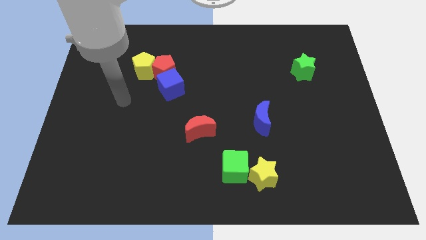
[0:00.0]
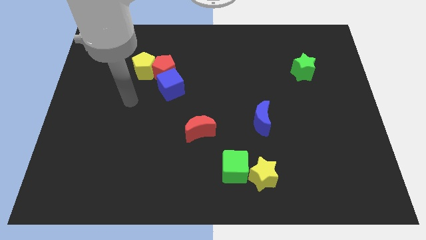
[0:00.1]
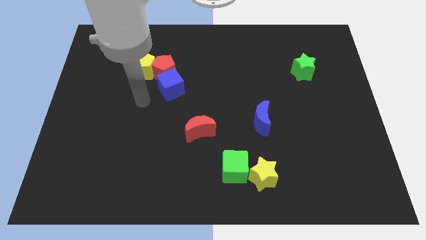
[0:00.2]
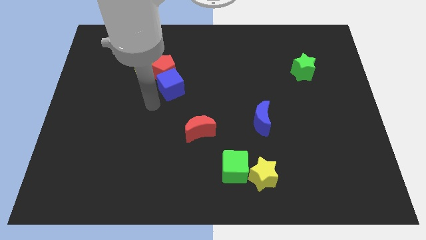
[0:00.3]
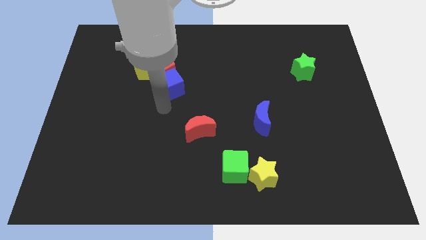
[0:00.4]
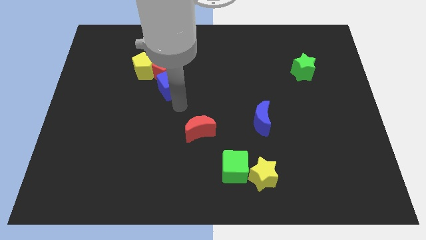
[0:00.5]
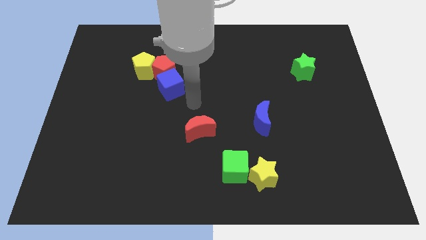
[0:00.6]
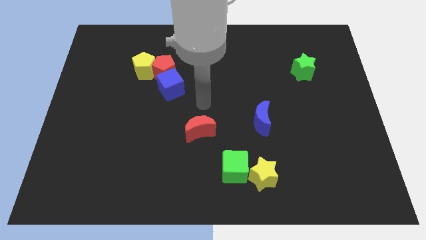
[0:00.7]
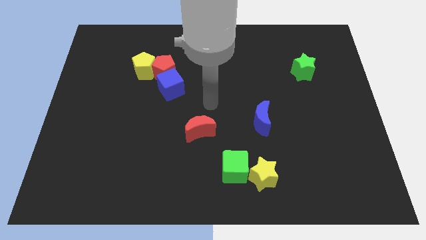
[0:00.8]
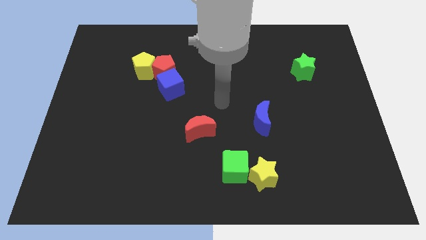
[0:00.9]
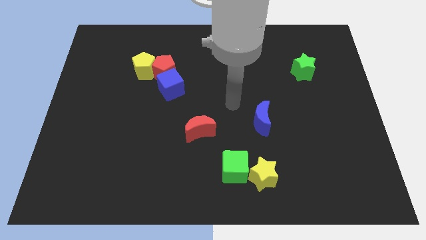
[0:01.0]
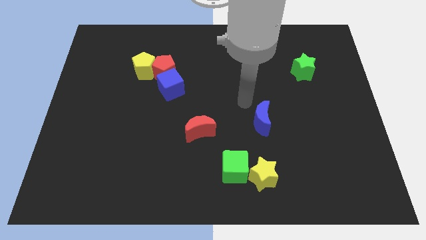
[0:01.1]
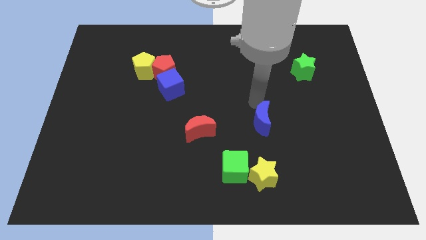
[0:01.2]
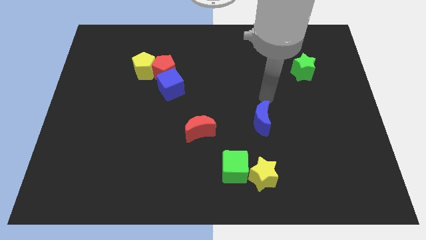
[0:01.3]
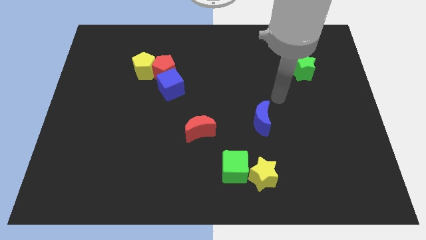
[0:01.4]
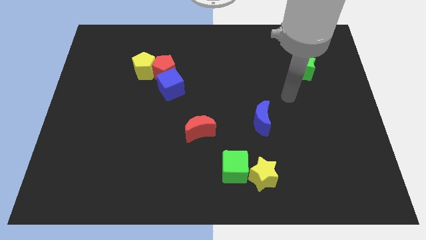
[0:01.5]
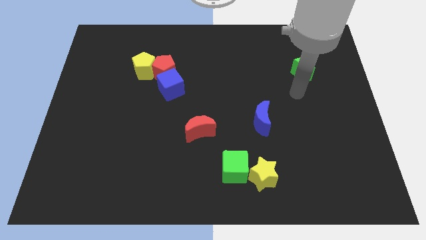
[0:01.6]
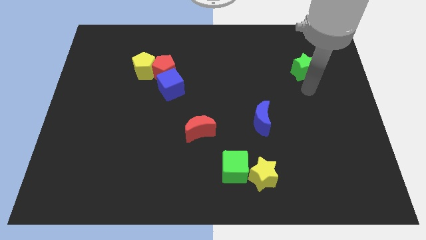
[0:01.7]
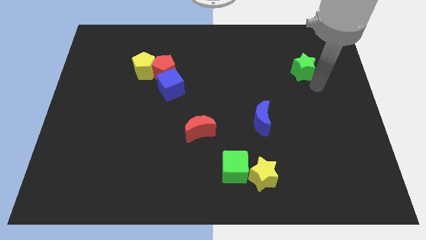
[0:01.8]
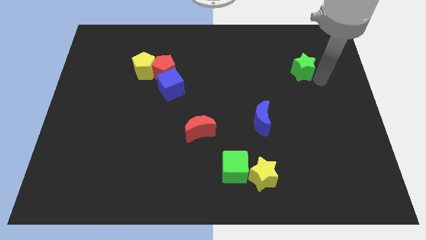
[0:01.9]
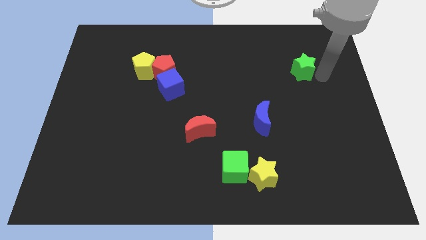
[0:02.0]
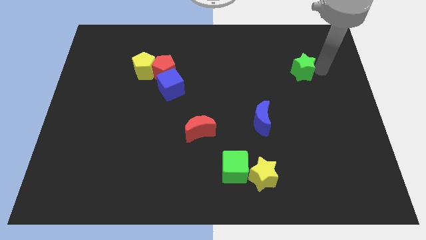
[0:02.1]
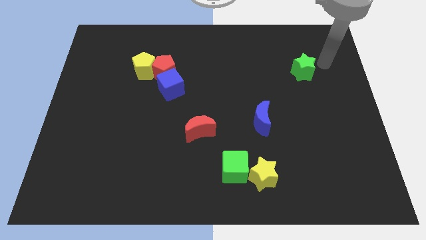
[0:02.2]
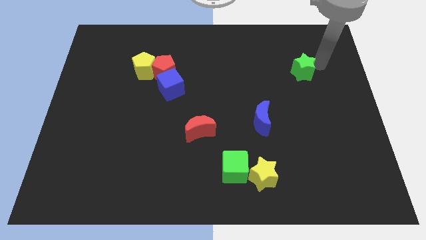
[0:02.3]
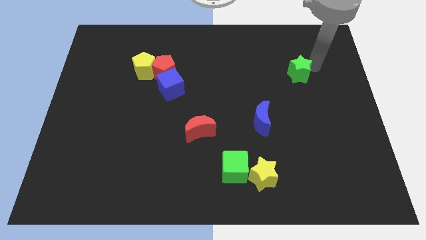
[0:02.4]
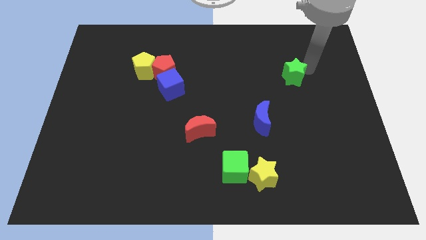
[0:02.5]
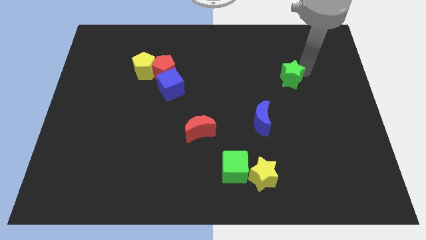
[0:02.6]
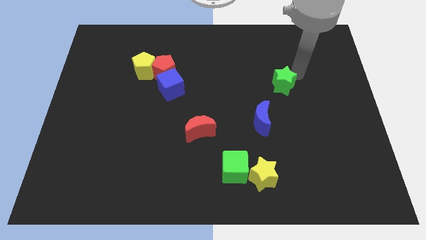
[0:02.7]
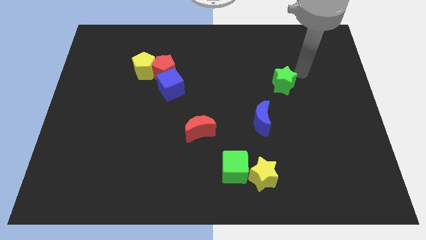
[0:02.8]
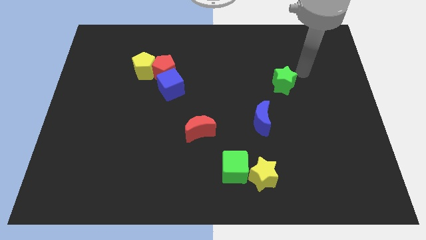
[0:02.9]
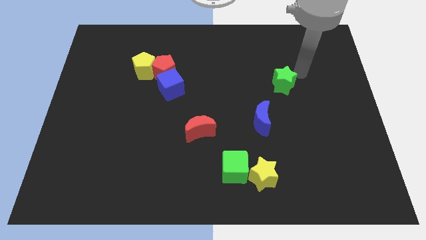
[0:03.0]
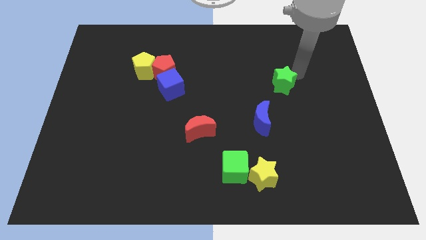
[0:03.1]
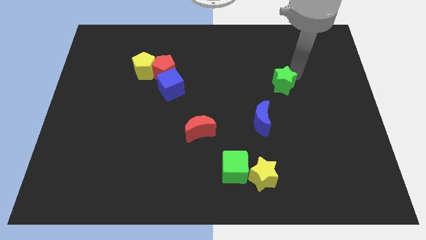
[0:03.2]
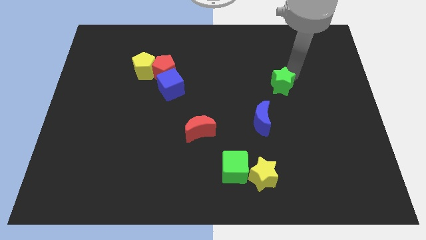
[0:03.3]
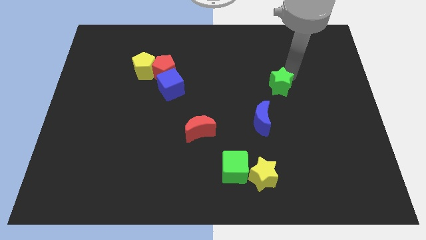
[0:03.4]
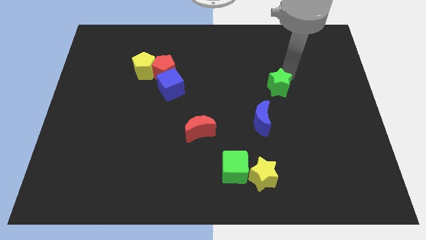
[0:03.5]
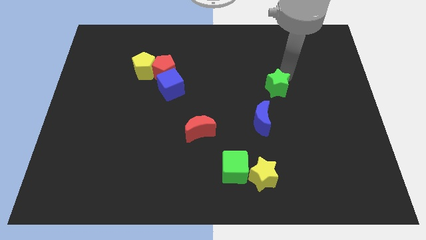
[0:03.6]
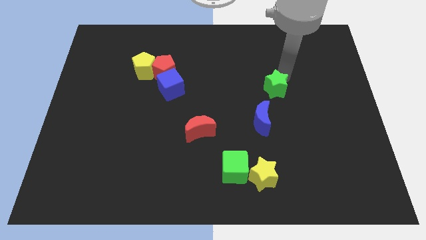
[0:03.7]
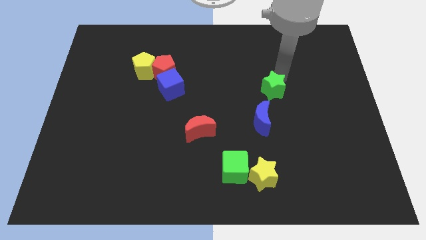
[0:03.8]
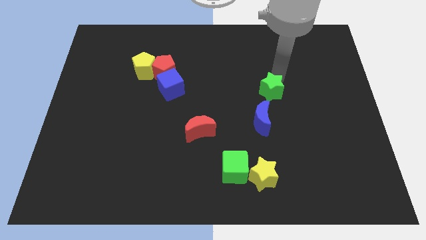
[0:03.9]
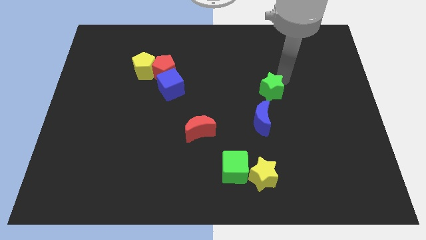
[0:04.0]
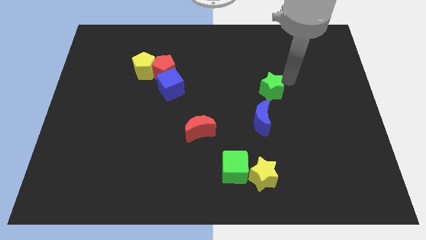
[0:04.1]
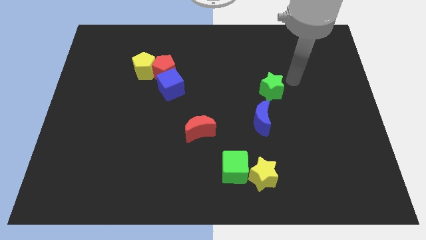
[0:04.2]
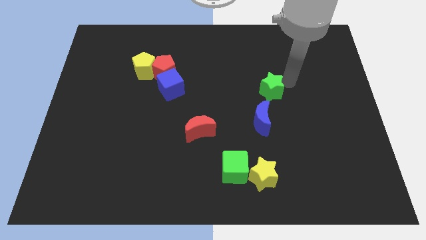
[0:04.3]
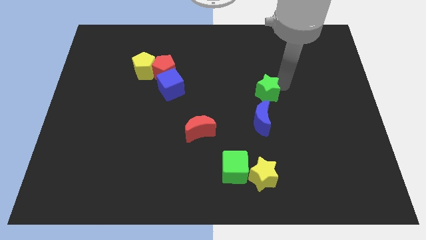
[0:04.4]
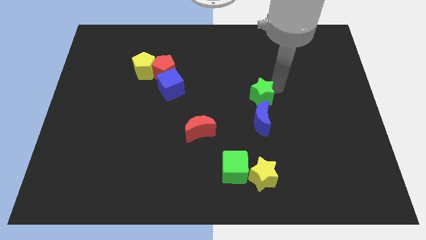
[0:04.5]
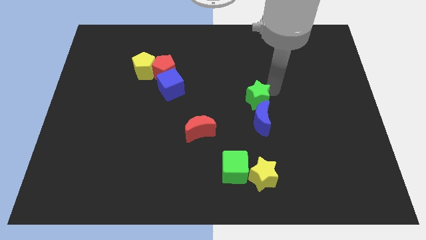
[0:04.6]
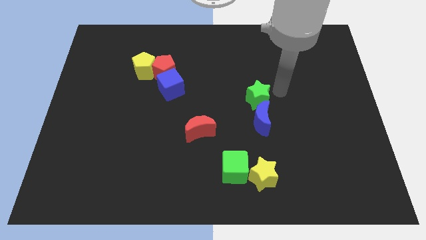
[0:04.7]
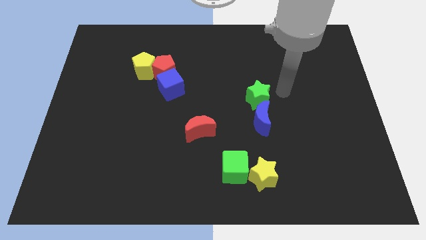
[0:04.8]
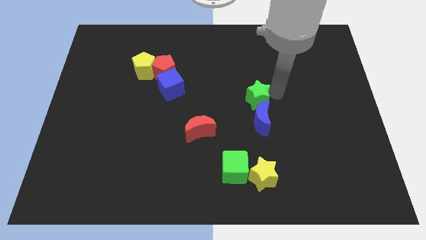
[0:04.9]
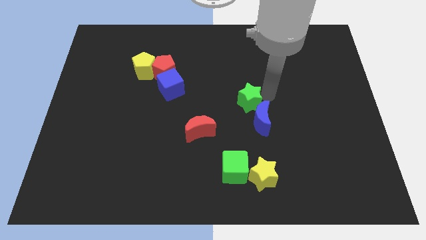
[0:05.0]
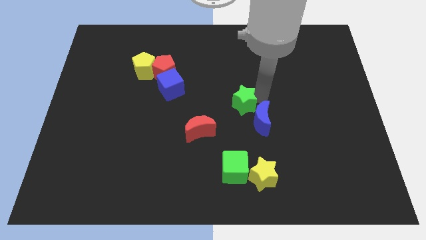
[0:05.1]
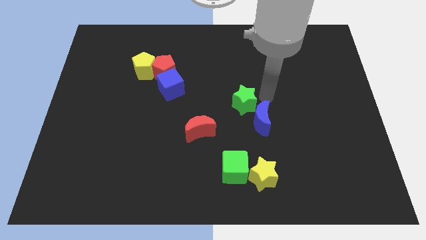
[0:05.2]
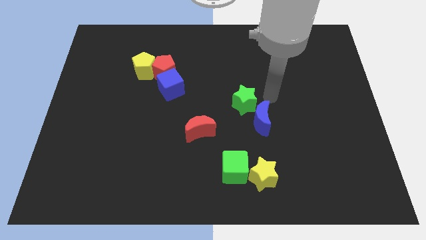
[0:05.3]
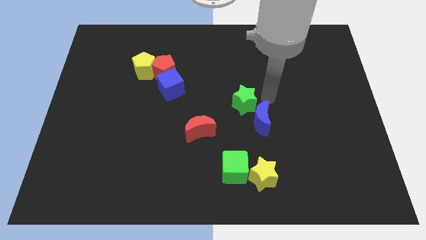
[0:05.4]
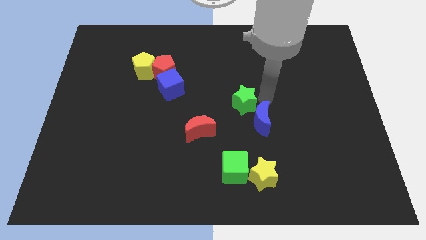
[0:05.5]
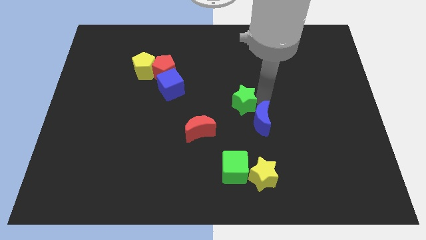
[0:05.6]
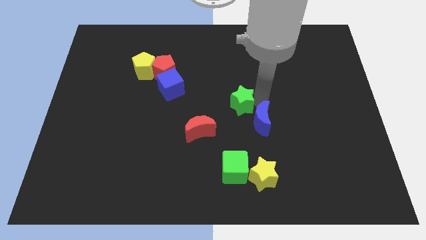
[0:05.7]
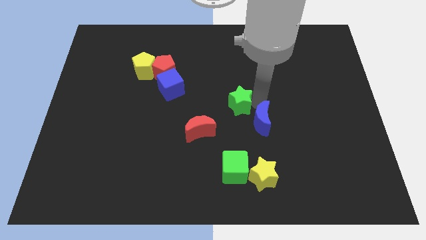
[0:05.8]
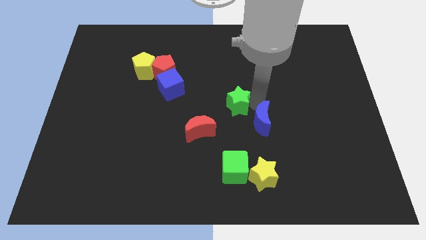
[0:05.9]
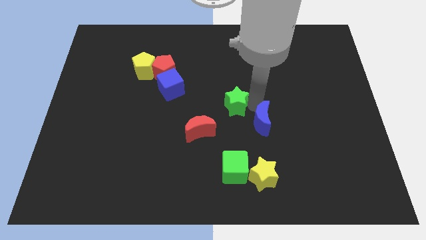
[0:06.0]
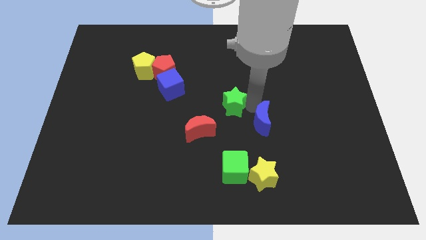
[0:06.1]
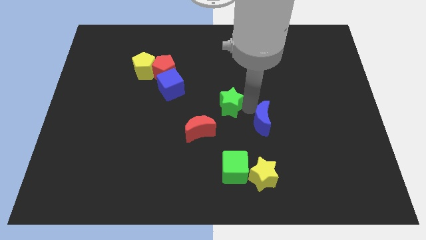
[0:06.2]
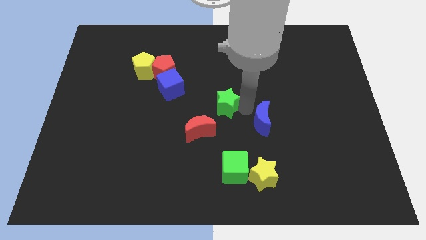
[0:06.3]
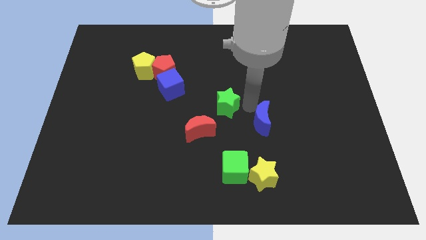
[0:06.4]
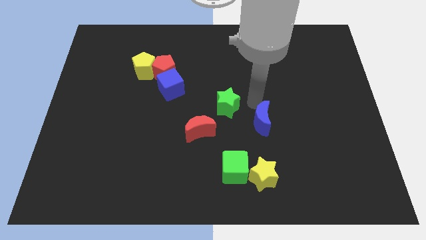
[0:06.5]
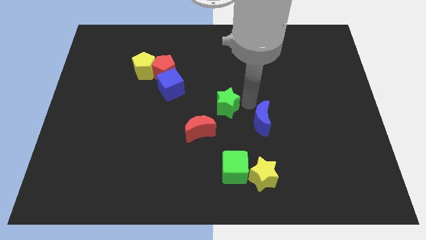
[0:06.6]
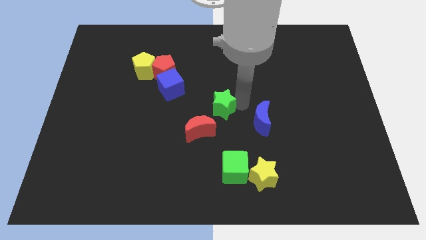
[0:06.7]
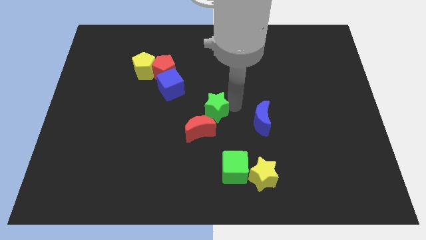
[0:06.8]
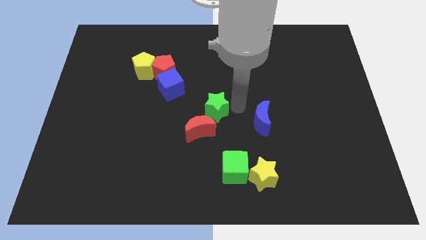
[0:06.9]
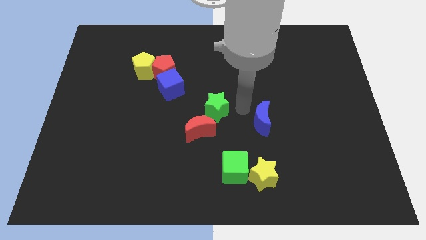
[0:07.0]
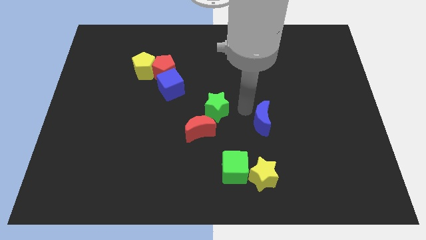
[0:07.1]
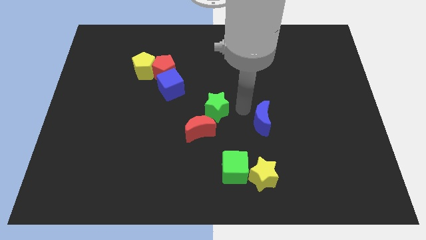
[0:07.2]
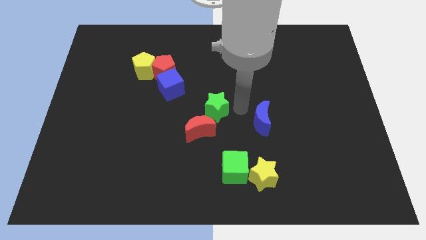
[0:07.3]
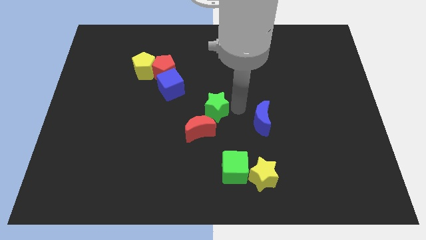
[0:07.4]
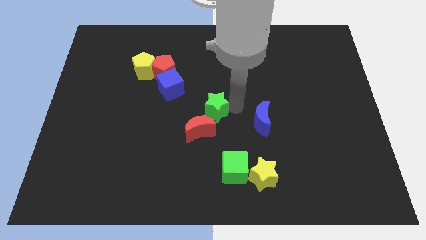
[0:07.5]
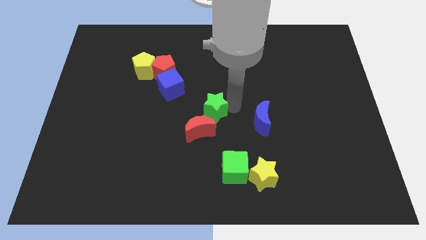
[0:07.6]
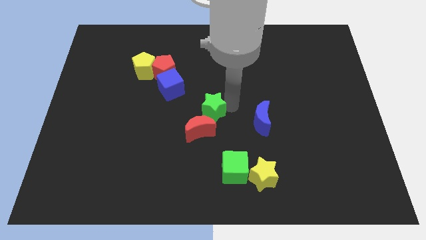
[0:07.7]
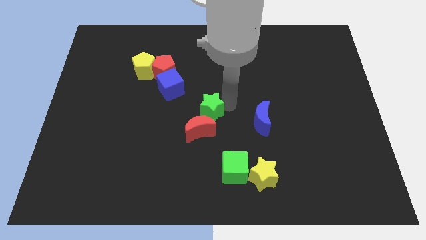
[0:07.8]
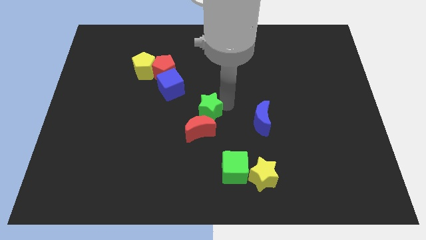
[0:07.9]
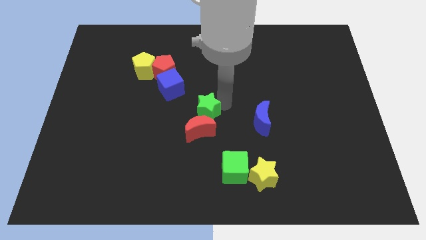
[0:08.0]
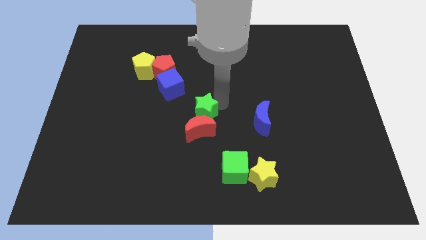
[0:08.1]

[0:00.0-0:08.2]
put the green star to the top left of the red moon
